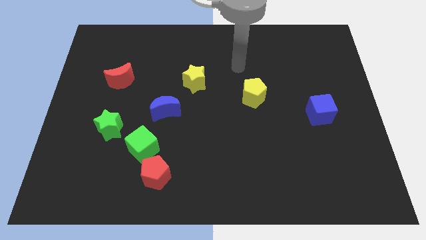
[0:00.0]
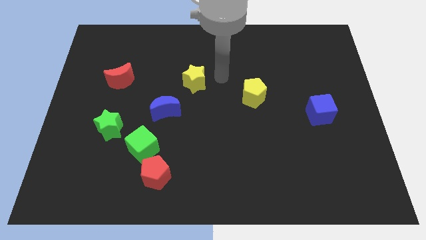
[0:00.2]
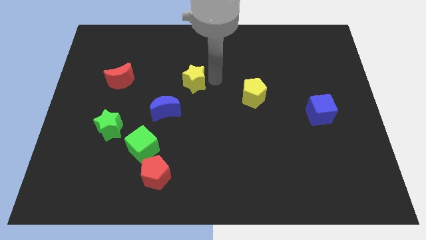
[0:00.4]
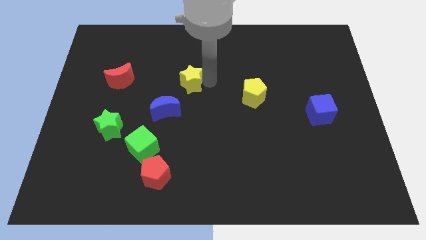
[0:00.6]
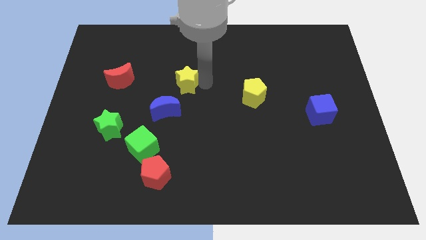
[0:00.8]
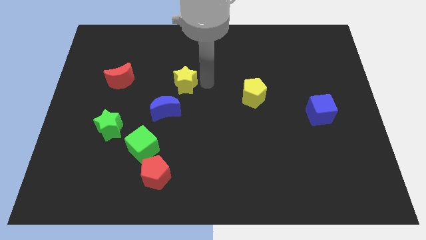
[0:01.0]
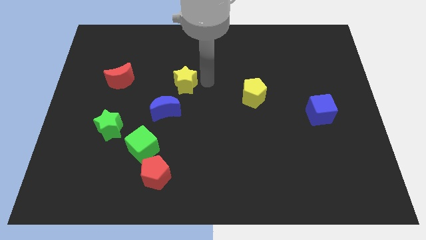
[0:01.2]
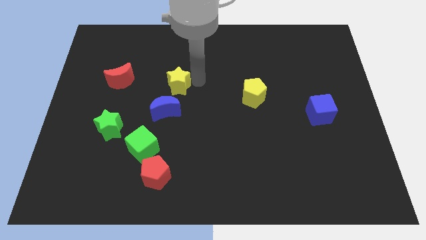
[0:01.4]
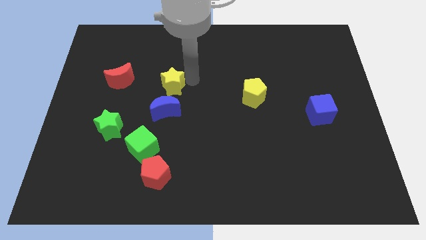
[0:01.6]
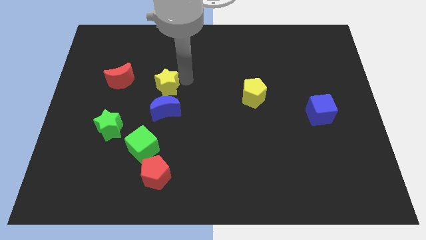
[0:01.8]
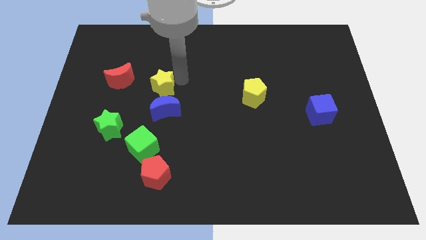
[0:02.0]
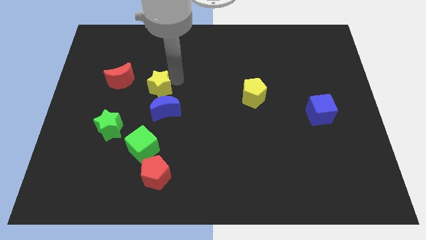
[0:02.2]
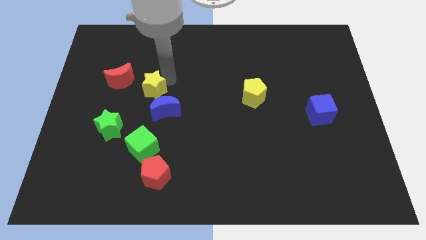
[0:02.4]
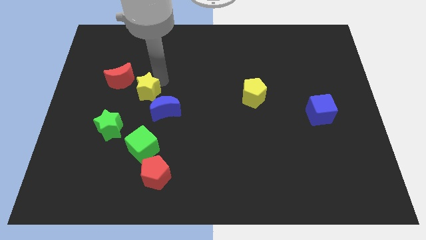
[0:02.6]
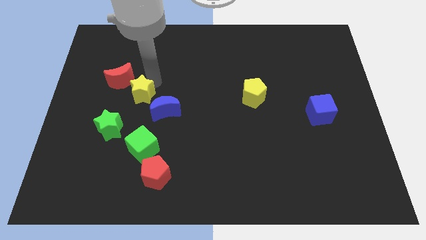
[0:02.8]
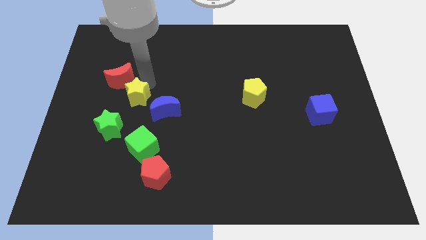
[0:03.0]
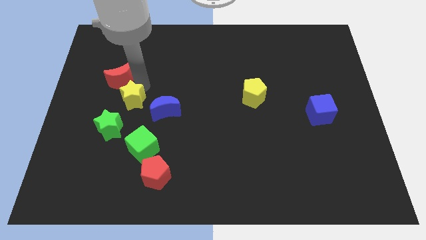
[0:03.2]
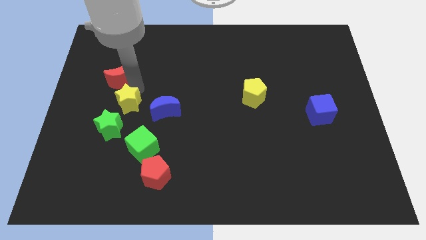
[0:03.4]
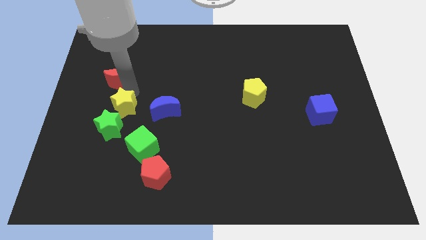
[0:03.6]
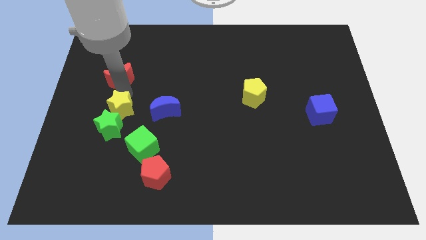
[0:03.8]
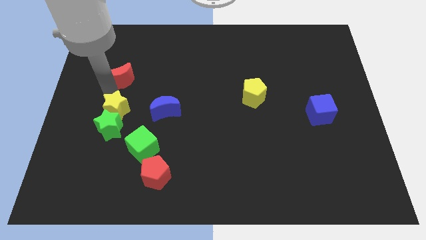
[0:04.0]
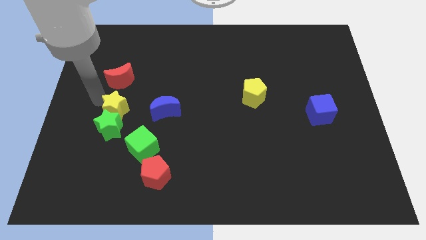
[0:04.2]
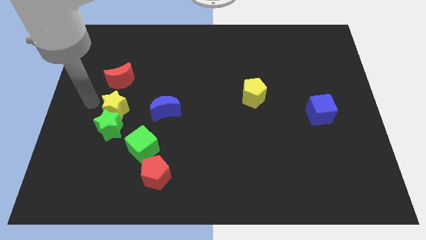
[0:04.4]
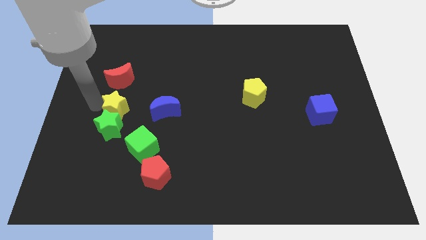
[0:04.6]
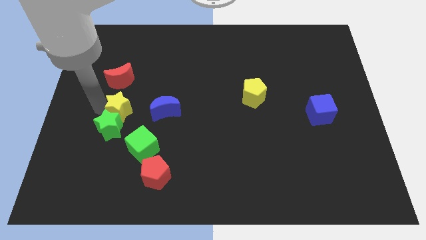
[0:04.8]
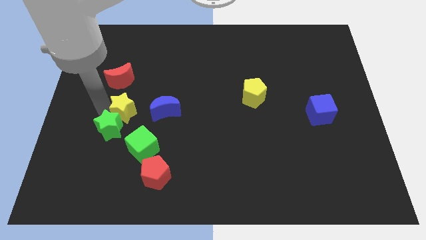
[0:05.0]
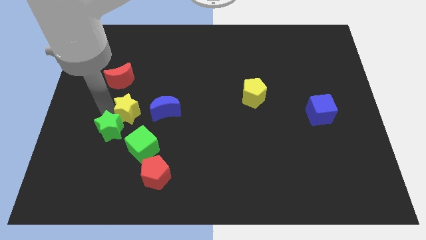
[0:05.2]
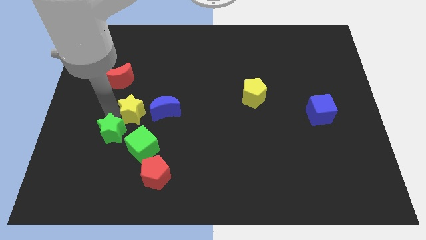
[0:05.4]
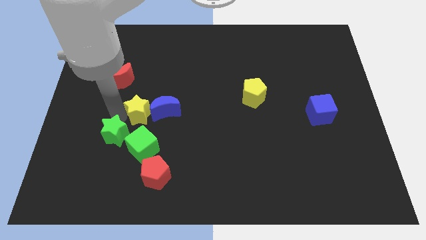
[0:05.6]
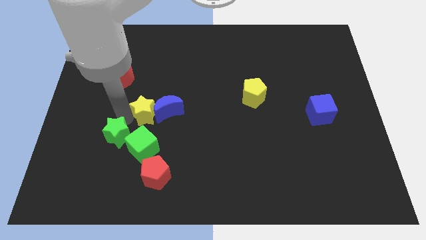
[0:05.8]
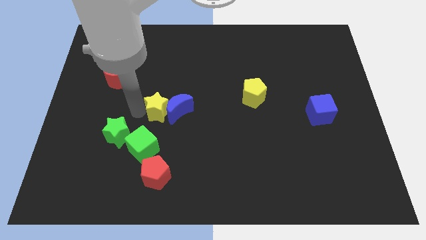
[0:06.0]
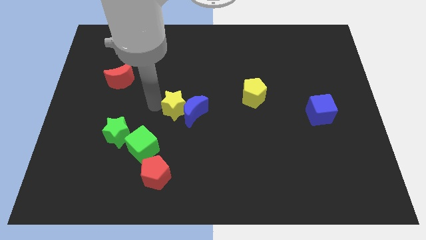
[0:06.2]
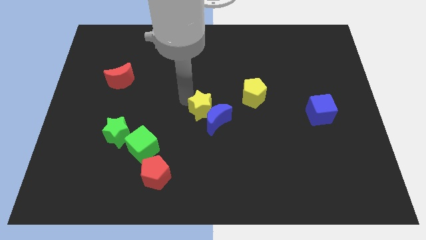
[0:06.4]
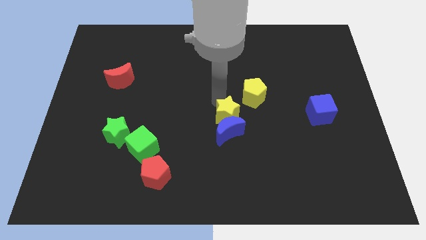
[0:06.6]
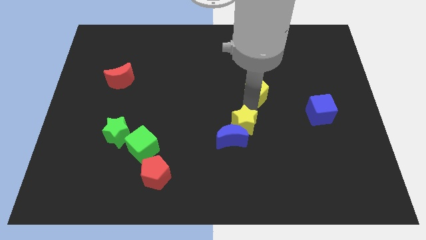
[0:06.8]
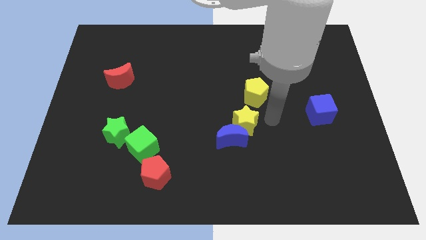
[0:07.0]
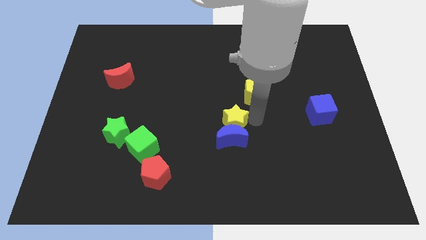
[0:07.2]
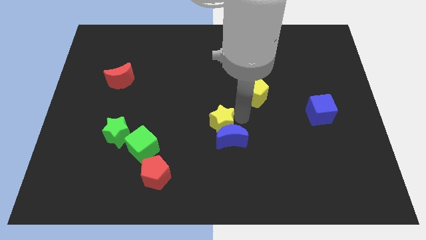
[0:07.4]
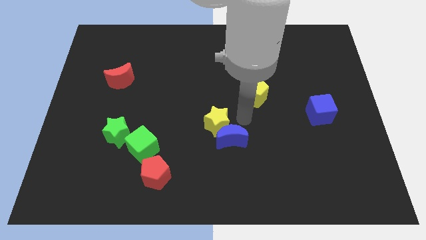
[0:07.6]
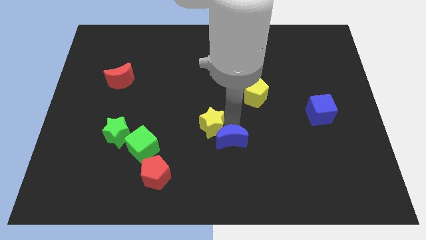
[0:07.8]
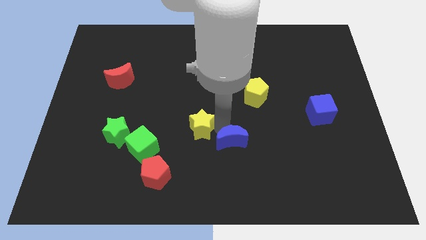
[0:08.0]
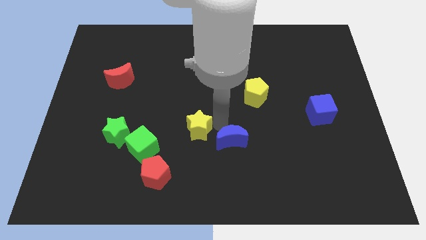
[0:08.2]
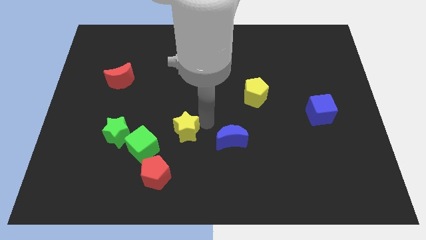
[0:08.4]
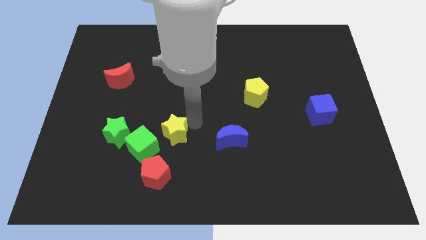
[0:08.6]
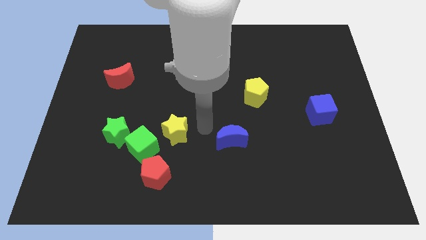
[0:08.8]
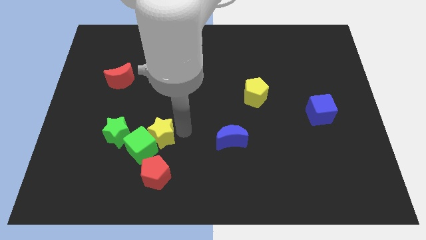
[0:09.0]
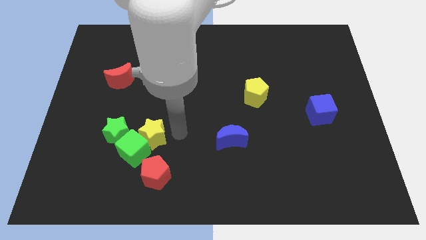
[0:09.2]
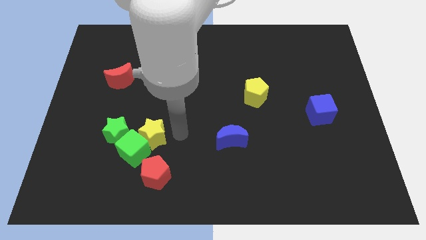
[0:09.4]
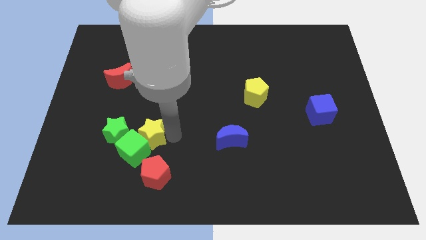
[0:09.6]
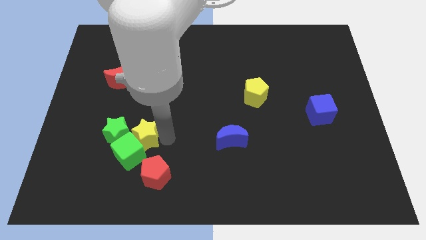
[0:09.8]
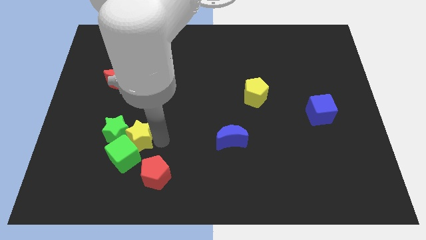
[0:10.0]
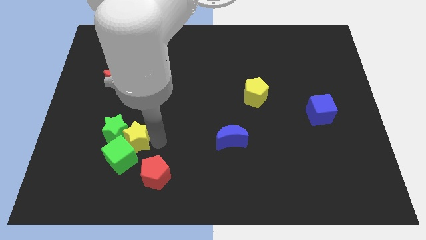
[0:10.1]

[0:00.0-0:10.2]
push the yellow star diagonally downwards and left

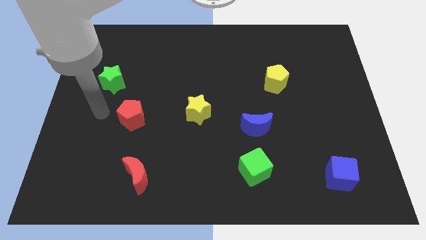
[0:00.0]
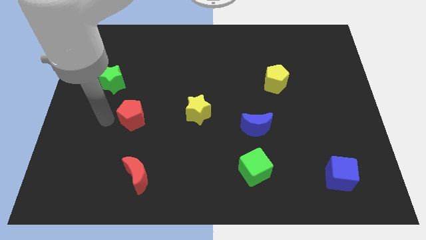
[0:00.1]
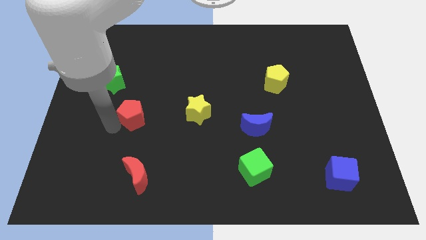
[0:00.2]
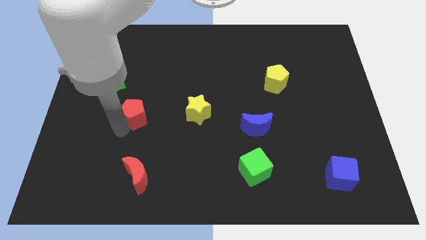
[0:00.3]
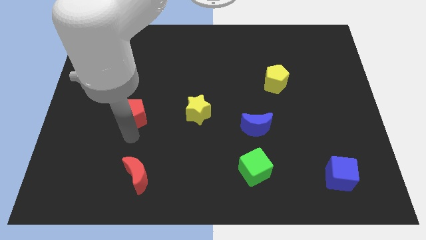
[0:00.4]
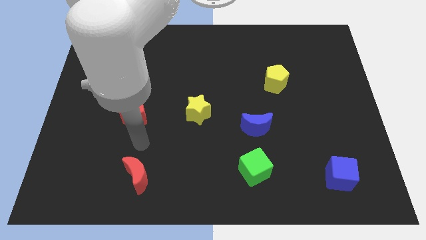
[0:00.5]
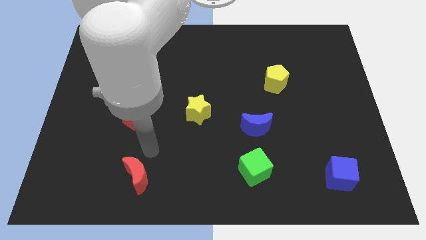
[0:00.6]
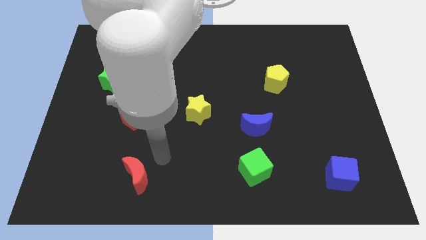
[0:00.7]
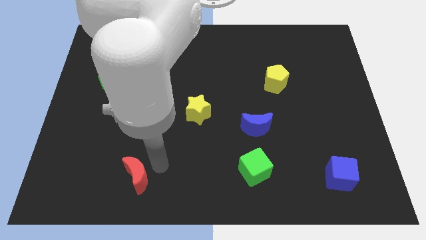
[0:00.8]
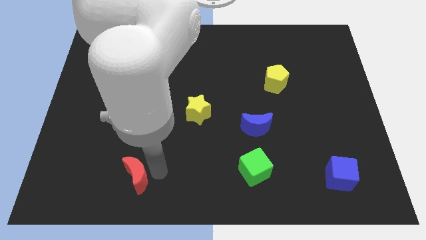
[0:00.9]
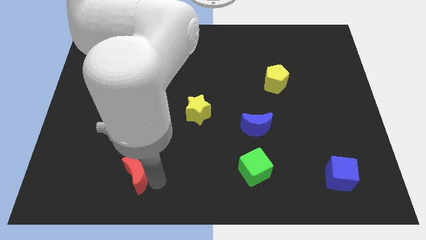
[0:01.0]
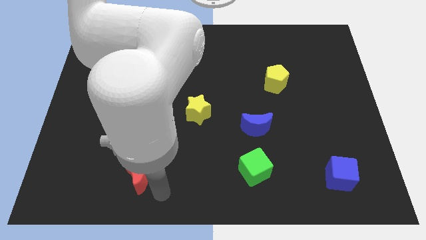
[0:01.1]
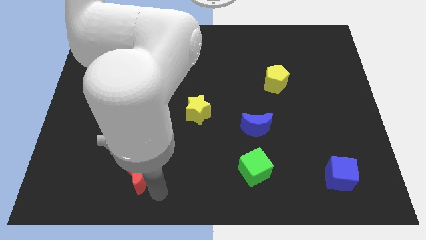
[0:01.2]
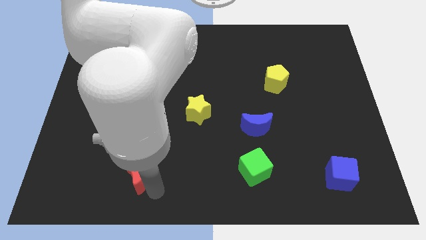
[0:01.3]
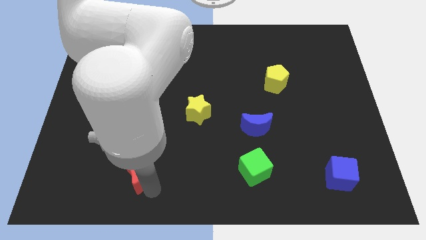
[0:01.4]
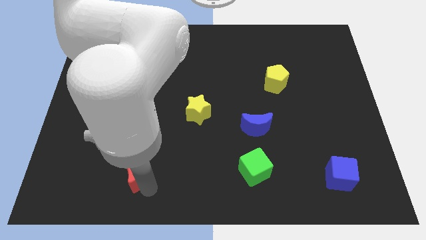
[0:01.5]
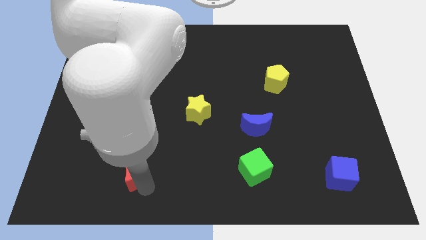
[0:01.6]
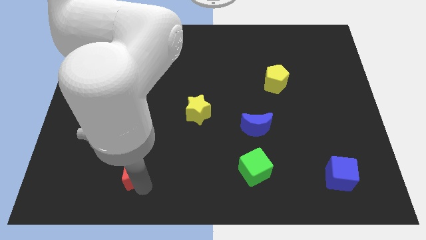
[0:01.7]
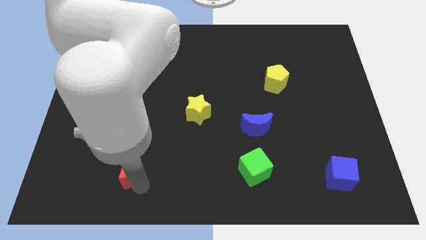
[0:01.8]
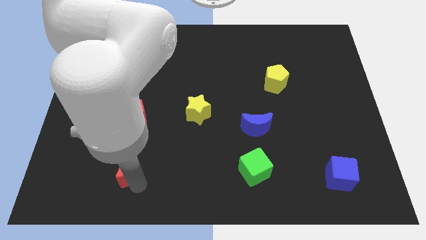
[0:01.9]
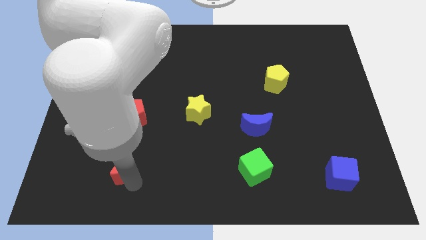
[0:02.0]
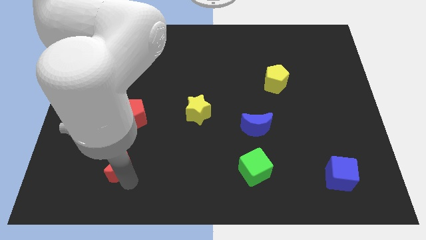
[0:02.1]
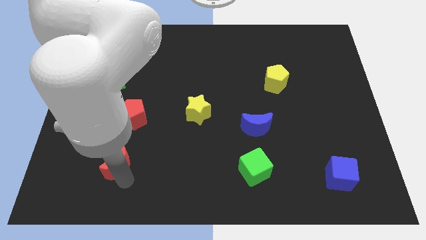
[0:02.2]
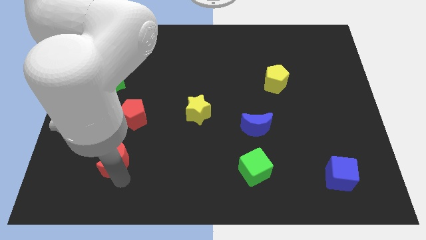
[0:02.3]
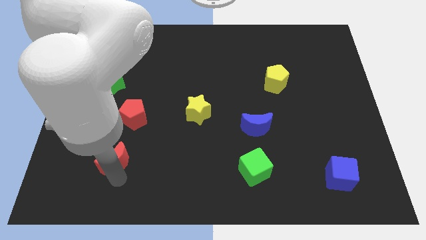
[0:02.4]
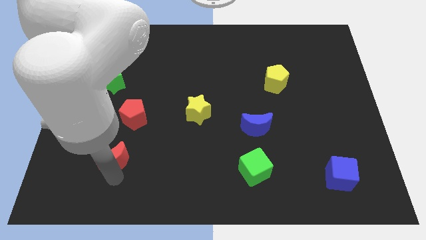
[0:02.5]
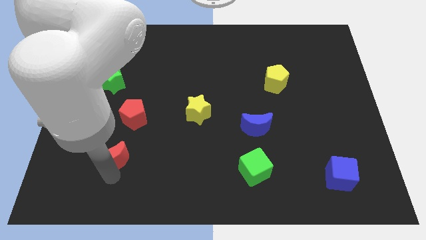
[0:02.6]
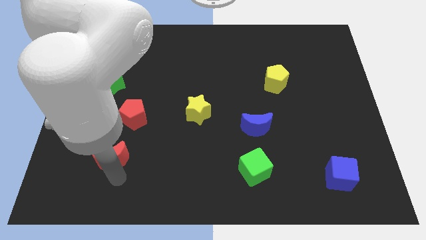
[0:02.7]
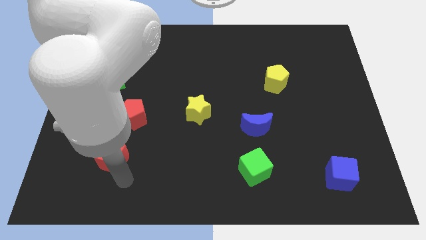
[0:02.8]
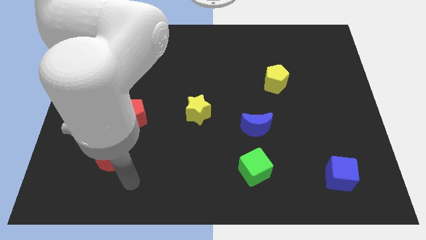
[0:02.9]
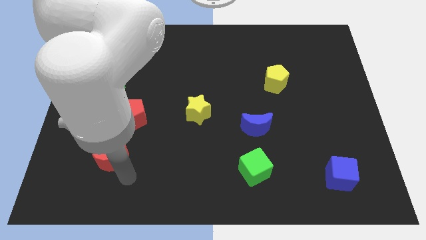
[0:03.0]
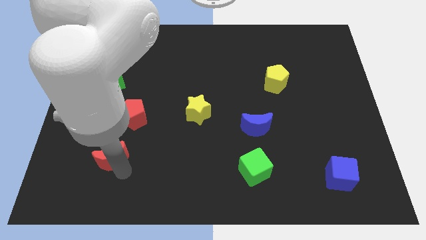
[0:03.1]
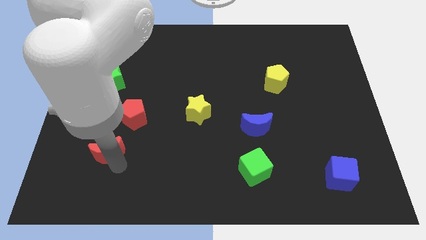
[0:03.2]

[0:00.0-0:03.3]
slightly slide the red moon up and left
